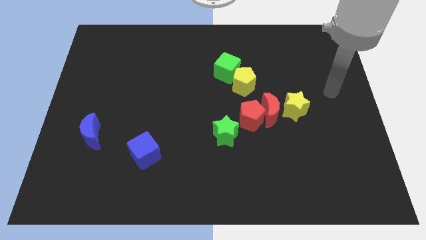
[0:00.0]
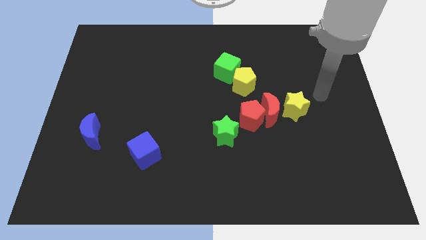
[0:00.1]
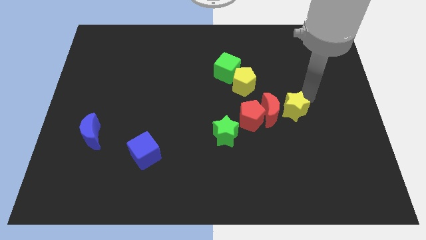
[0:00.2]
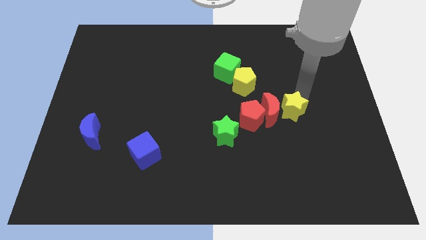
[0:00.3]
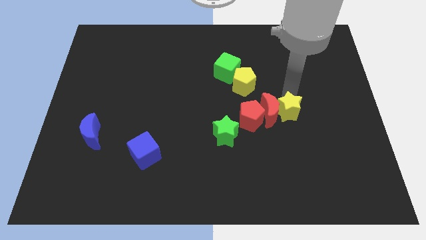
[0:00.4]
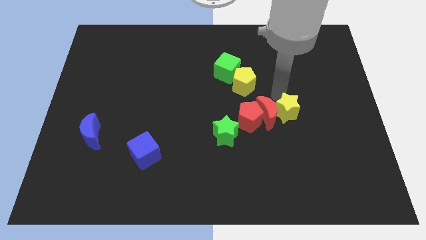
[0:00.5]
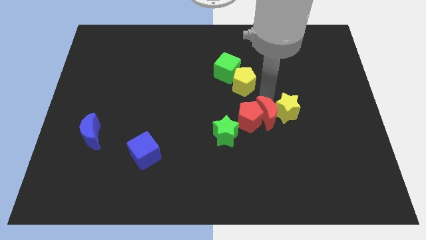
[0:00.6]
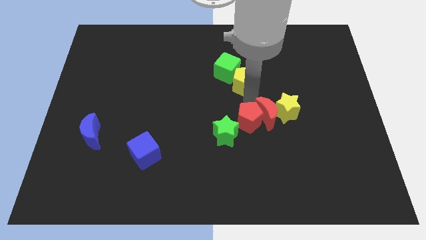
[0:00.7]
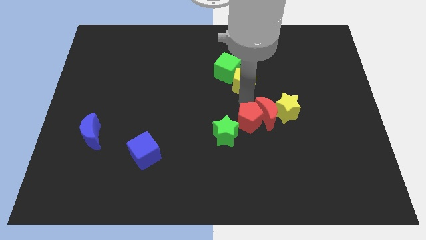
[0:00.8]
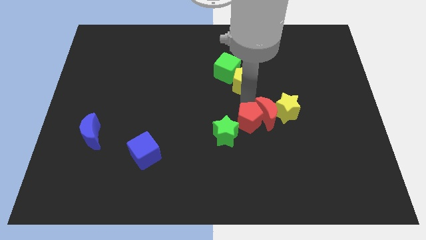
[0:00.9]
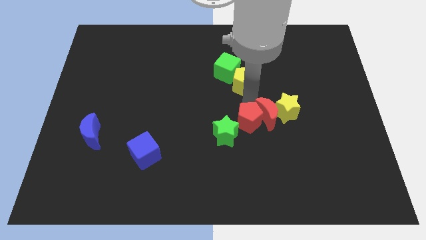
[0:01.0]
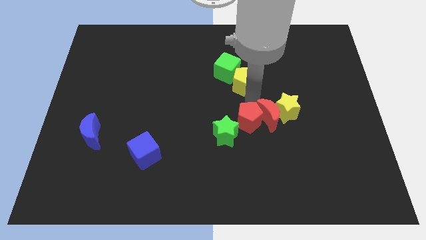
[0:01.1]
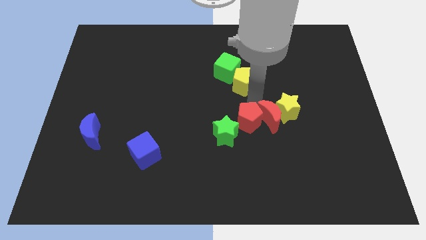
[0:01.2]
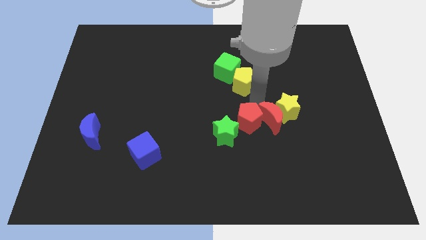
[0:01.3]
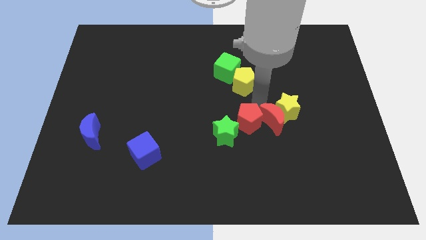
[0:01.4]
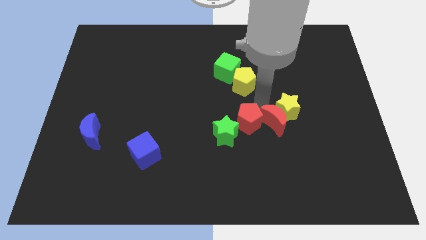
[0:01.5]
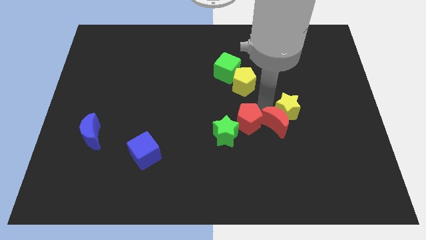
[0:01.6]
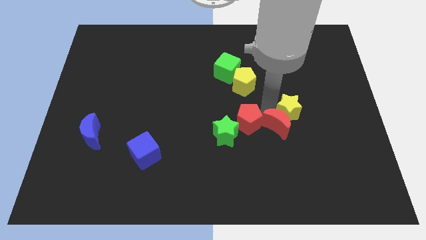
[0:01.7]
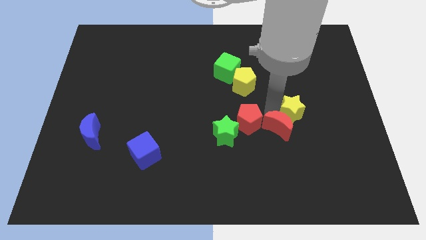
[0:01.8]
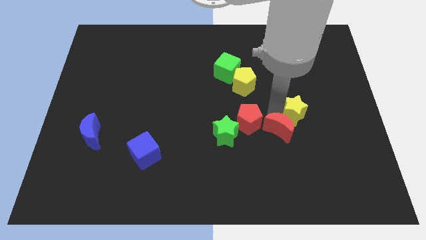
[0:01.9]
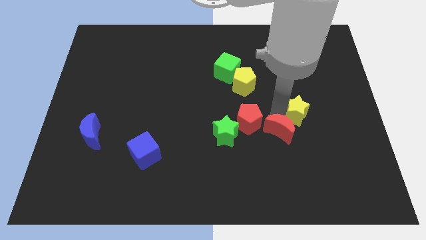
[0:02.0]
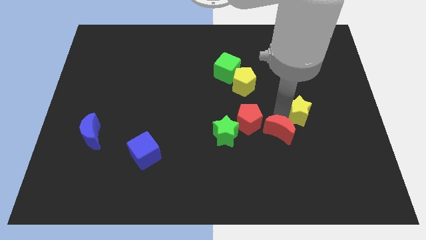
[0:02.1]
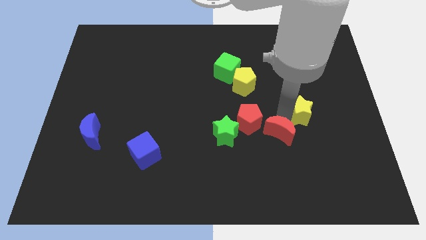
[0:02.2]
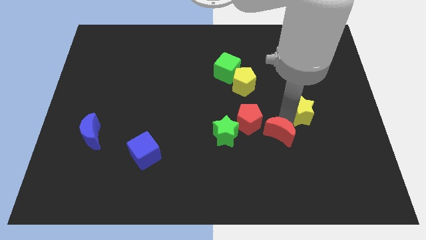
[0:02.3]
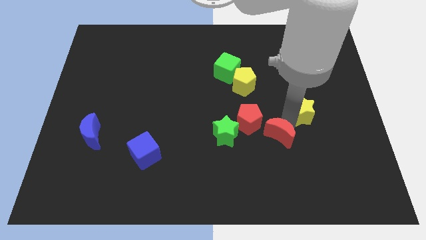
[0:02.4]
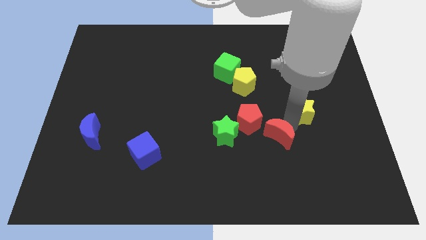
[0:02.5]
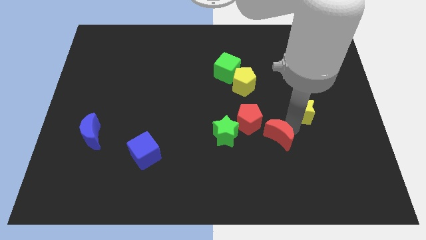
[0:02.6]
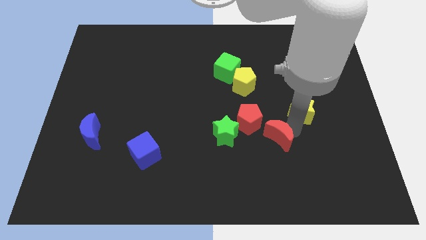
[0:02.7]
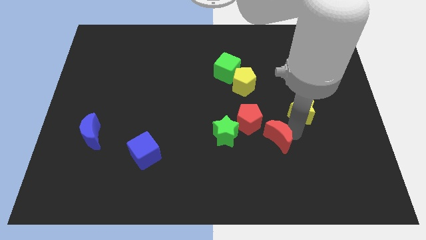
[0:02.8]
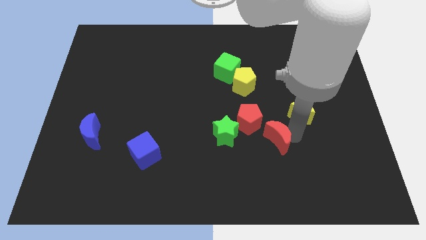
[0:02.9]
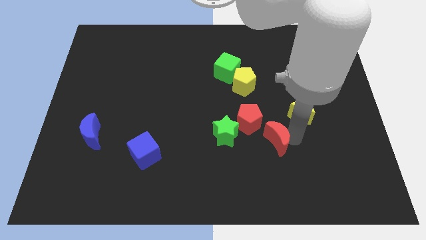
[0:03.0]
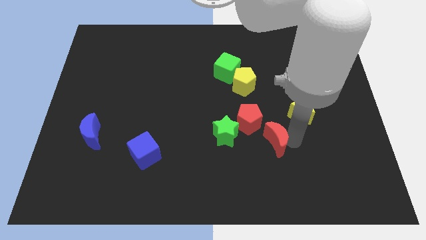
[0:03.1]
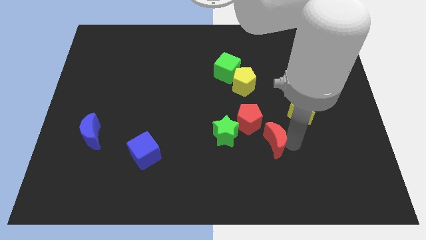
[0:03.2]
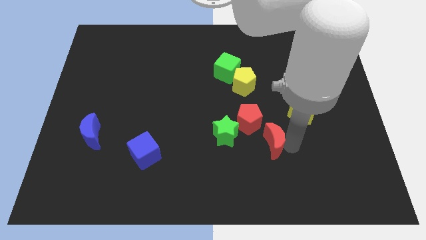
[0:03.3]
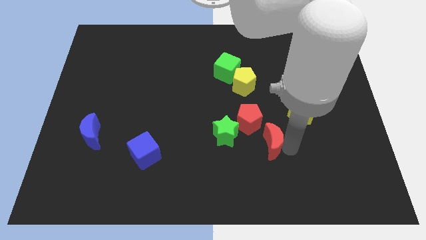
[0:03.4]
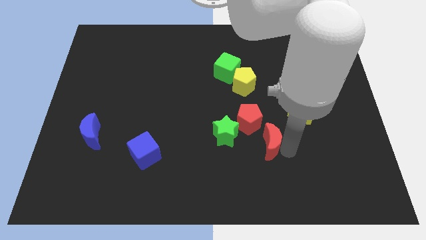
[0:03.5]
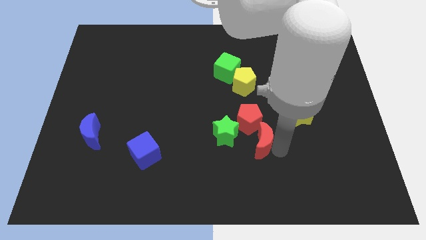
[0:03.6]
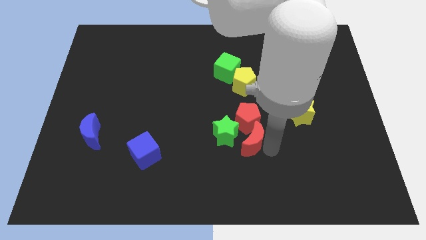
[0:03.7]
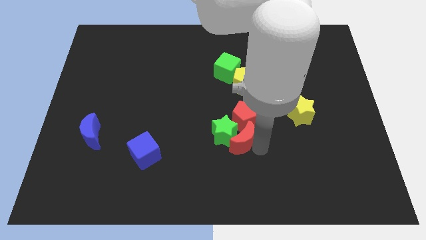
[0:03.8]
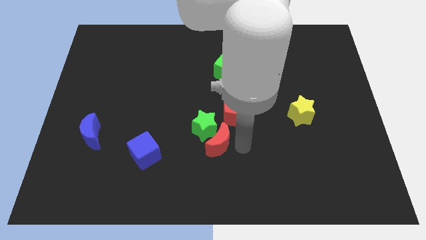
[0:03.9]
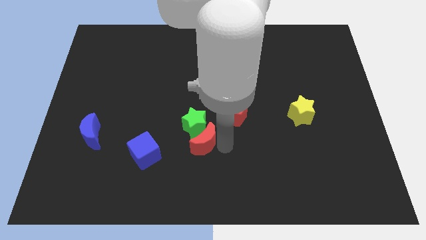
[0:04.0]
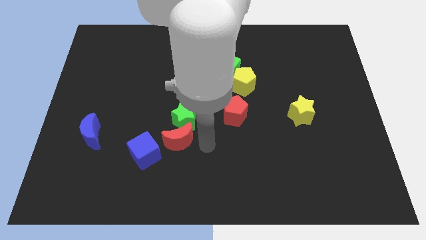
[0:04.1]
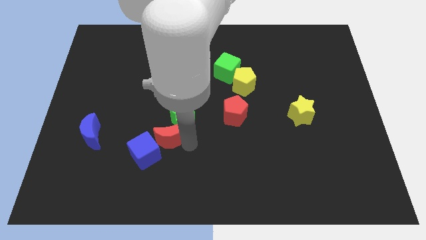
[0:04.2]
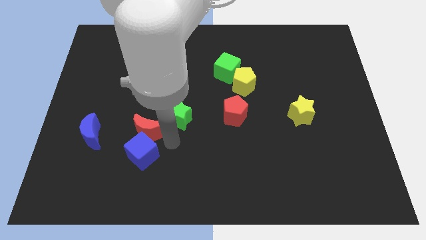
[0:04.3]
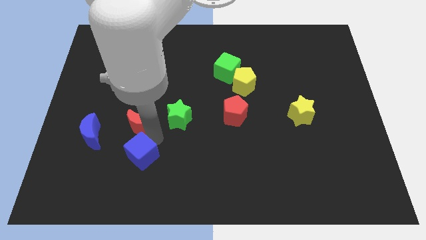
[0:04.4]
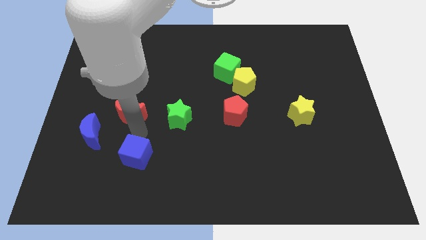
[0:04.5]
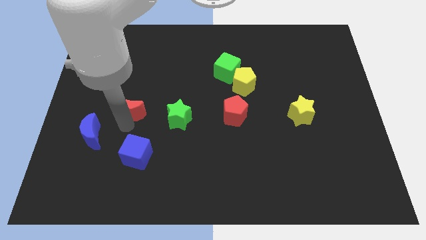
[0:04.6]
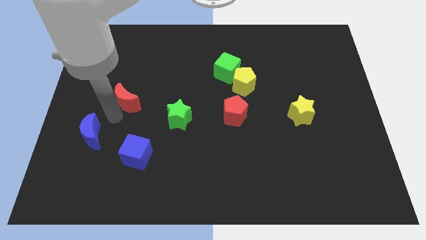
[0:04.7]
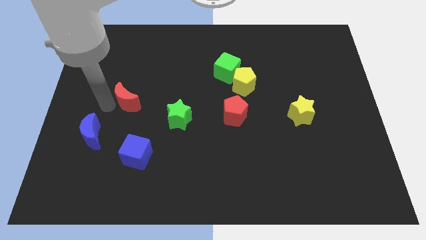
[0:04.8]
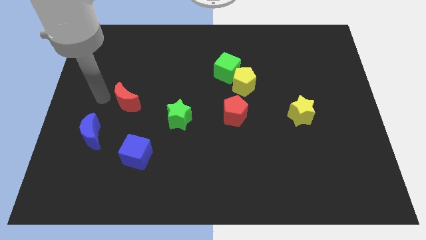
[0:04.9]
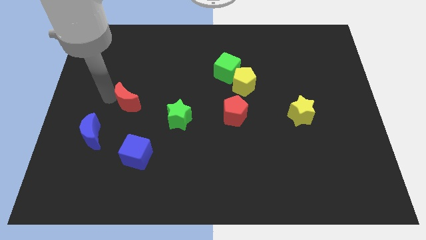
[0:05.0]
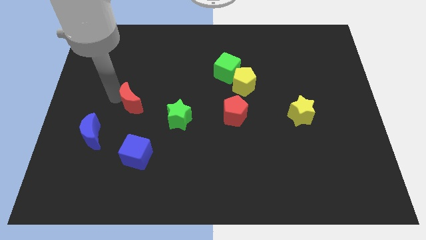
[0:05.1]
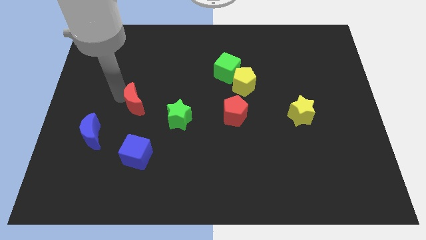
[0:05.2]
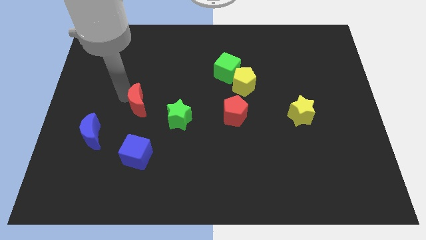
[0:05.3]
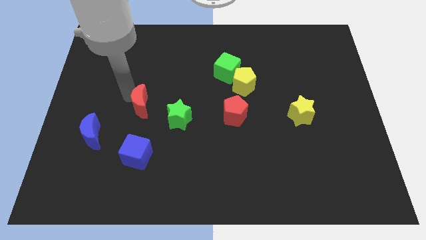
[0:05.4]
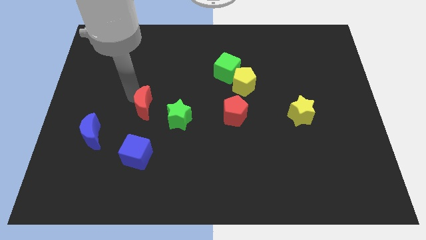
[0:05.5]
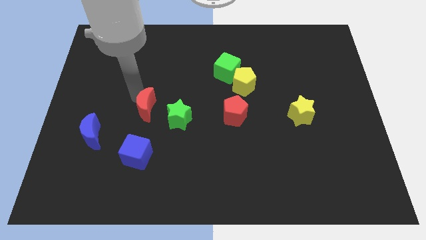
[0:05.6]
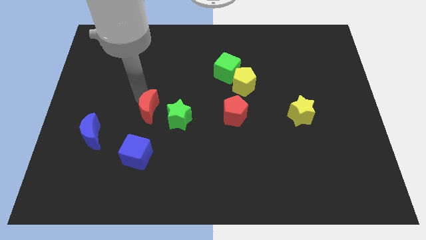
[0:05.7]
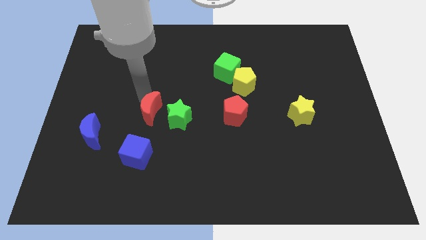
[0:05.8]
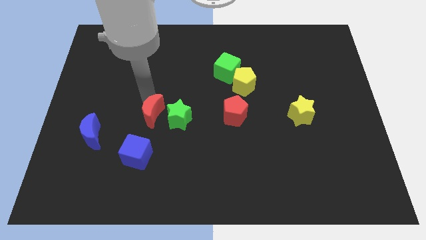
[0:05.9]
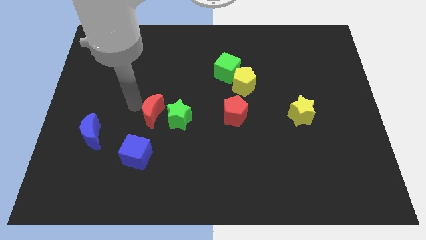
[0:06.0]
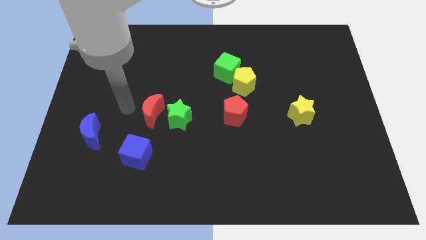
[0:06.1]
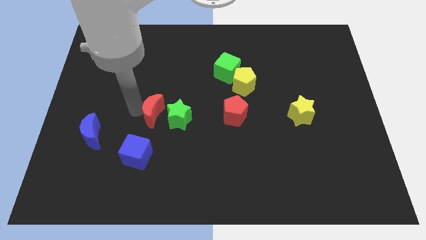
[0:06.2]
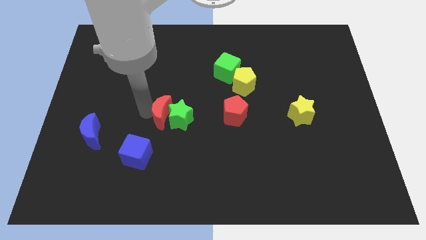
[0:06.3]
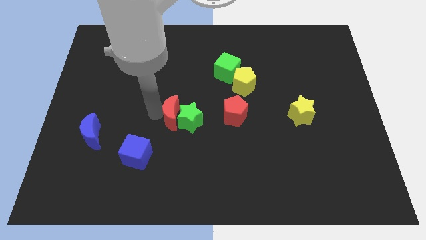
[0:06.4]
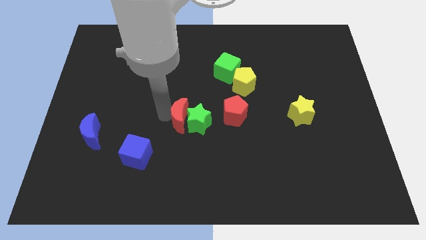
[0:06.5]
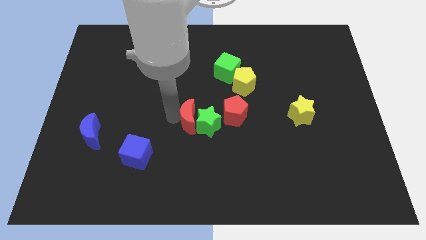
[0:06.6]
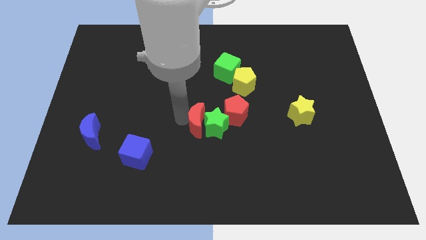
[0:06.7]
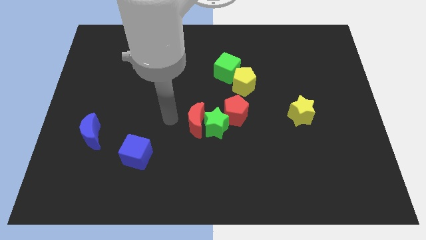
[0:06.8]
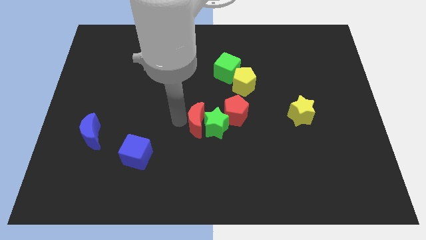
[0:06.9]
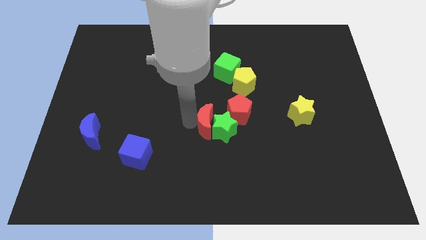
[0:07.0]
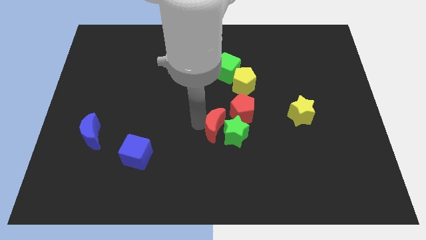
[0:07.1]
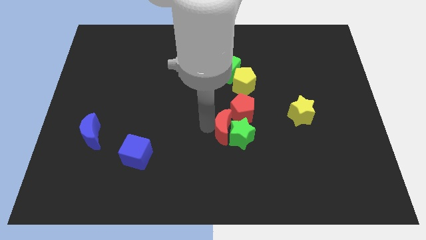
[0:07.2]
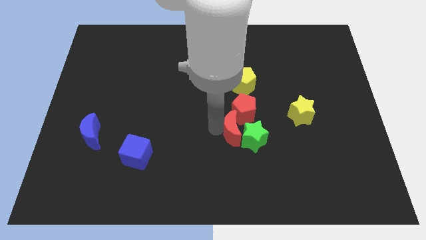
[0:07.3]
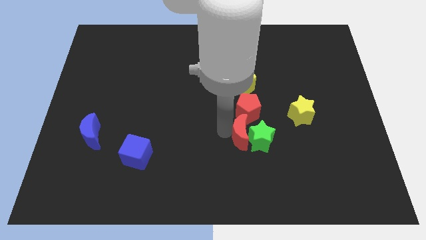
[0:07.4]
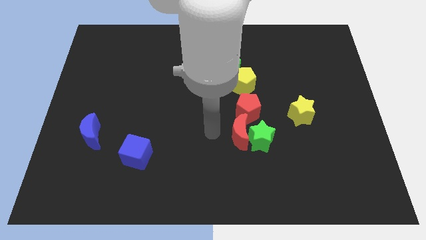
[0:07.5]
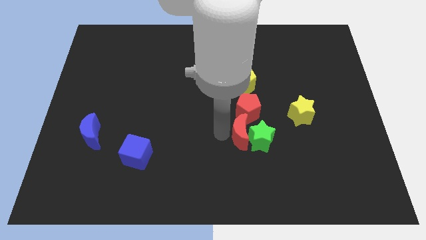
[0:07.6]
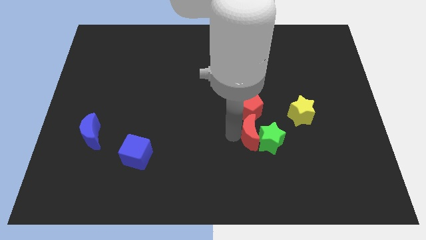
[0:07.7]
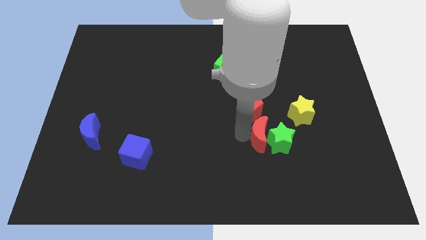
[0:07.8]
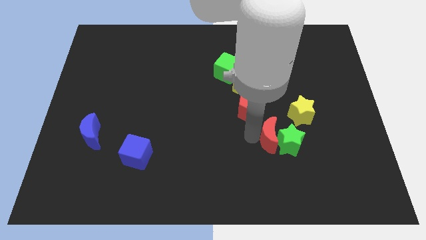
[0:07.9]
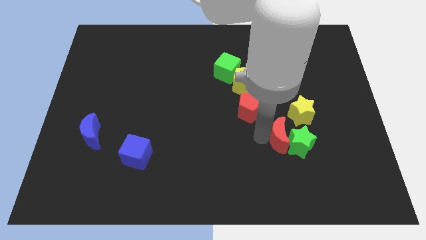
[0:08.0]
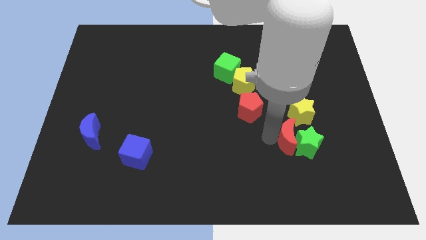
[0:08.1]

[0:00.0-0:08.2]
slightly push the red moon down and right
